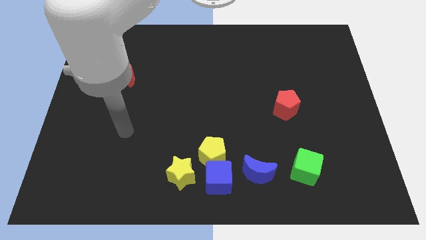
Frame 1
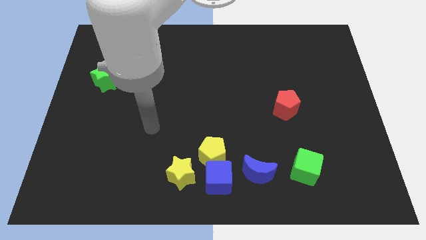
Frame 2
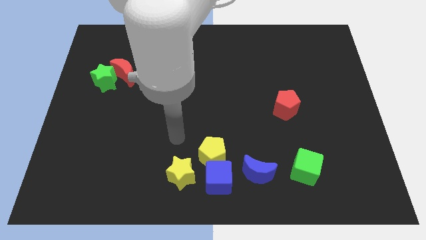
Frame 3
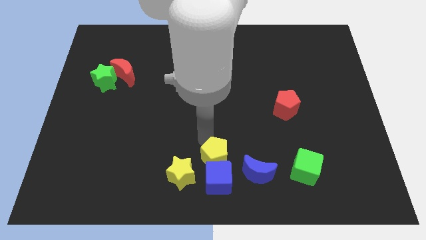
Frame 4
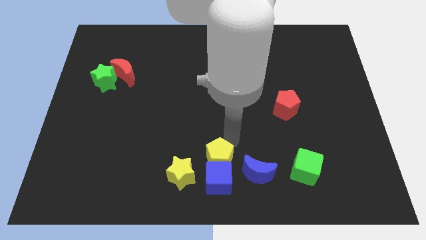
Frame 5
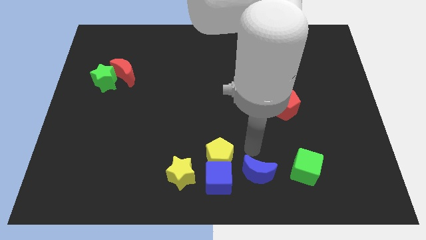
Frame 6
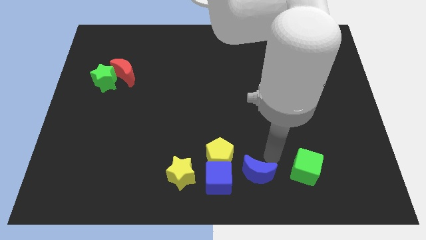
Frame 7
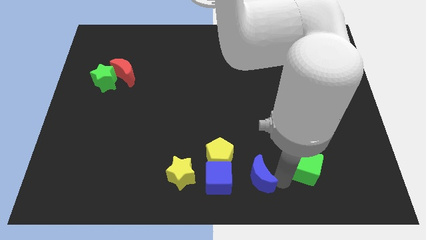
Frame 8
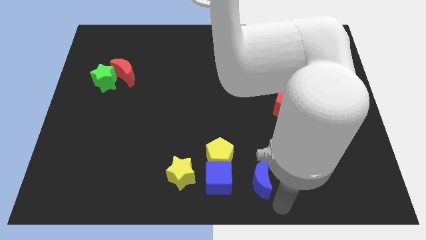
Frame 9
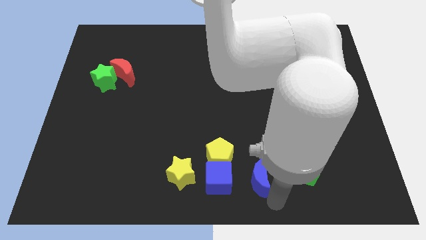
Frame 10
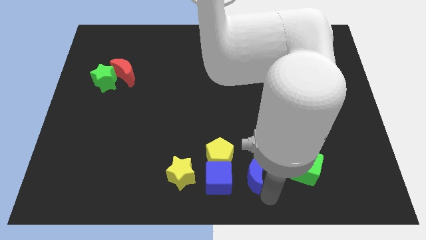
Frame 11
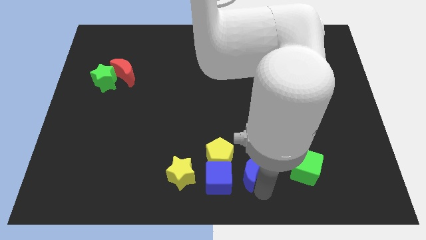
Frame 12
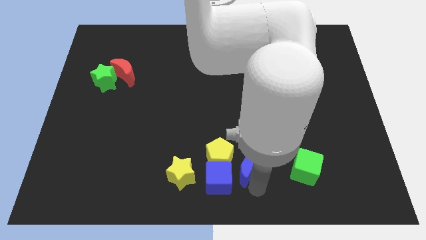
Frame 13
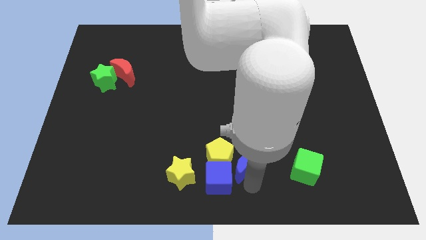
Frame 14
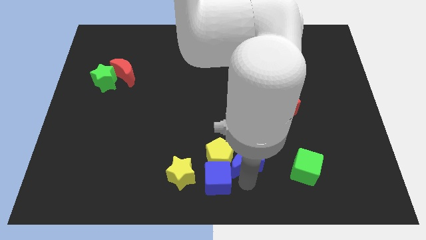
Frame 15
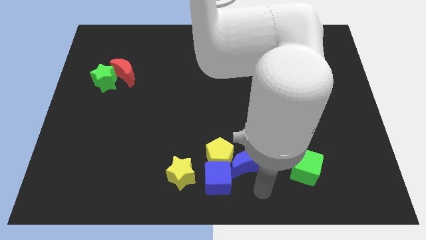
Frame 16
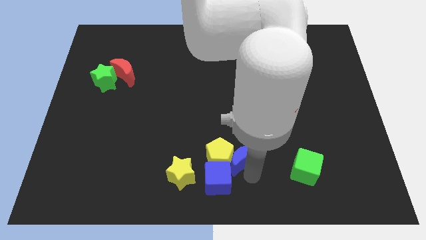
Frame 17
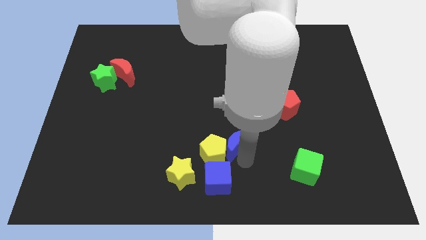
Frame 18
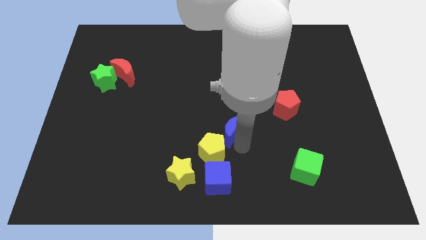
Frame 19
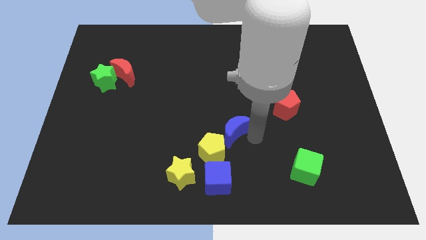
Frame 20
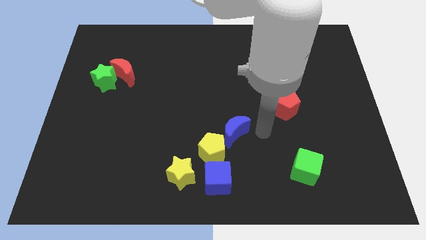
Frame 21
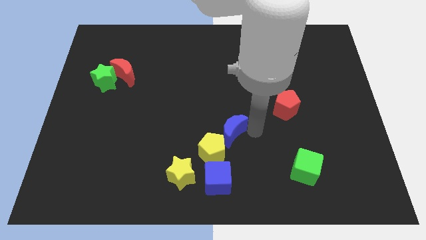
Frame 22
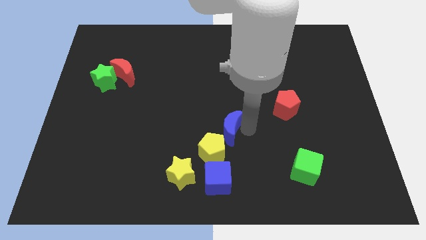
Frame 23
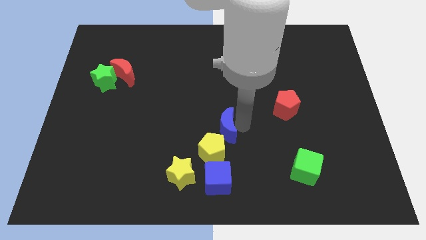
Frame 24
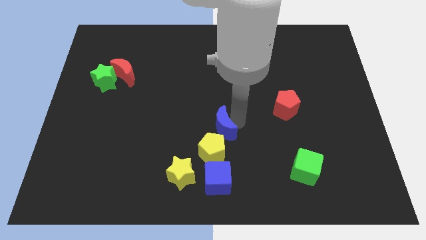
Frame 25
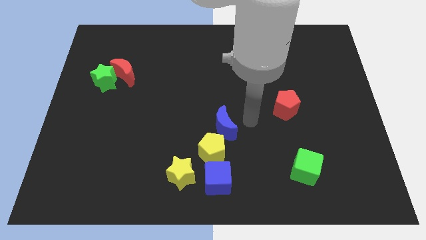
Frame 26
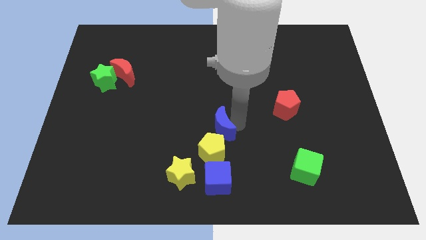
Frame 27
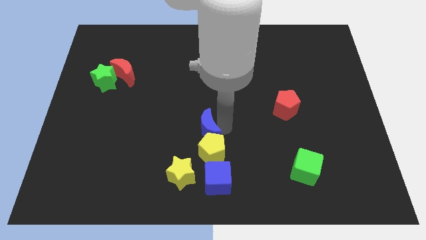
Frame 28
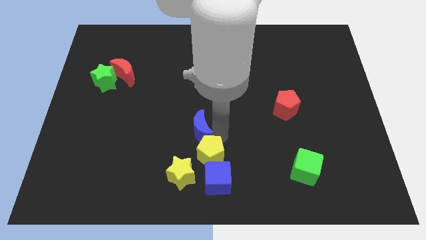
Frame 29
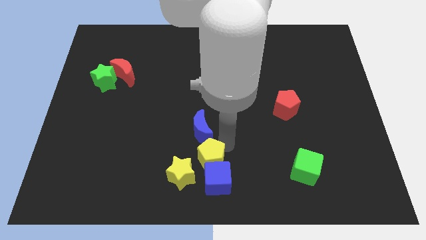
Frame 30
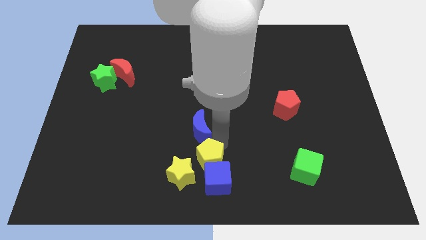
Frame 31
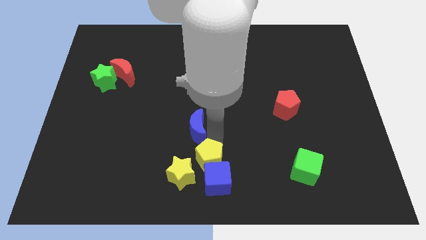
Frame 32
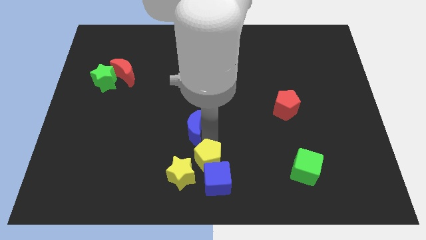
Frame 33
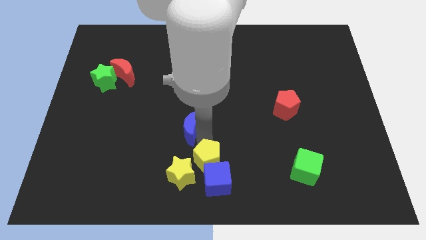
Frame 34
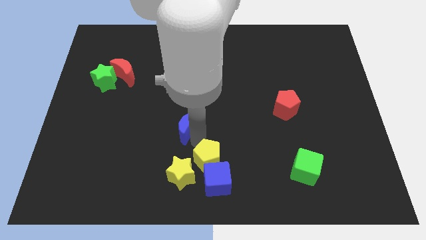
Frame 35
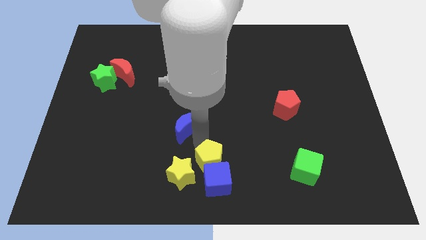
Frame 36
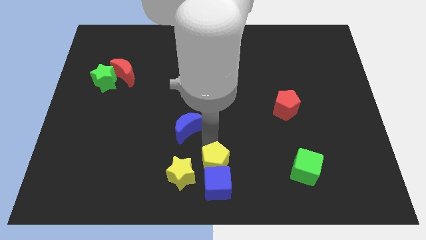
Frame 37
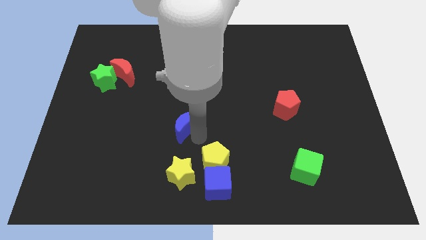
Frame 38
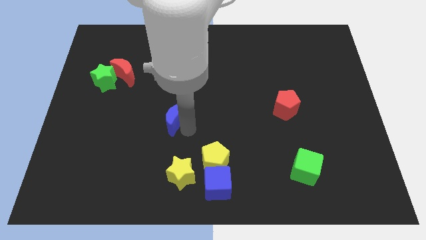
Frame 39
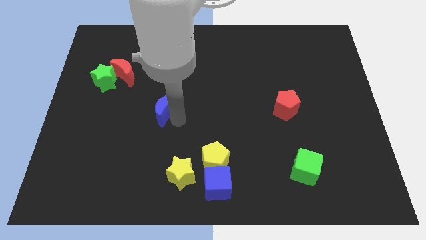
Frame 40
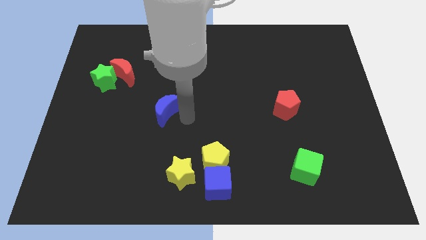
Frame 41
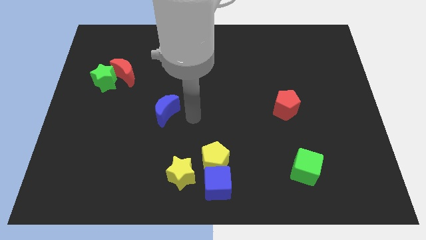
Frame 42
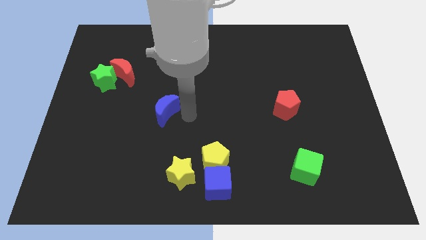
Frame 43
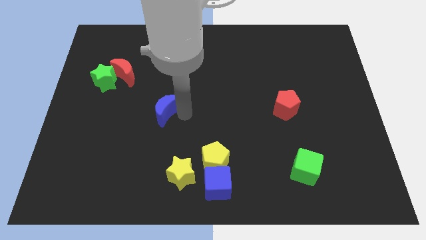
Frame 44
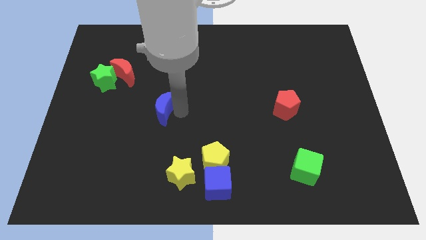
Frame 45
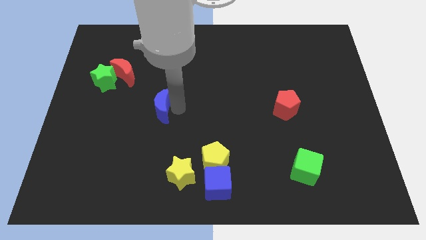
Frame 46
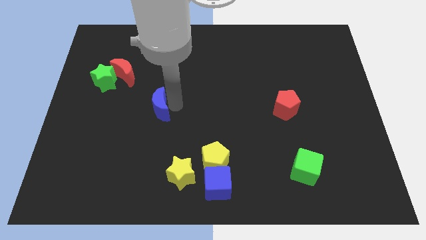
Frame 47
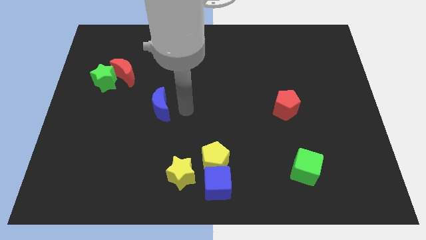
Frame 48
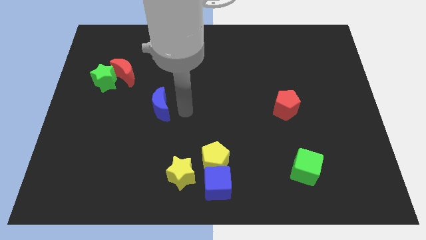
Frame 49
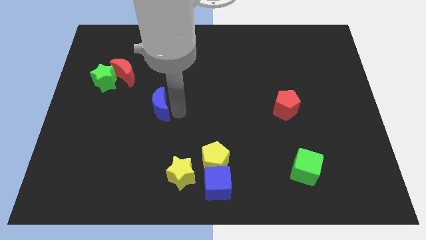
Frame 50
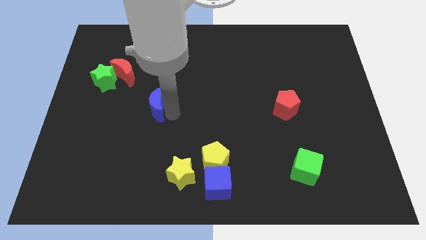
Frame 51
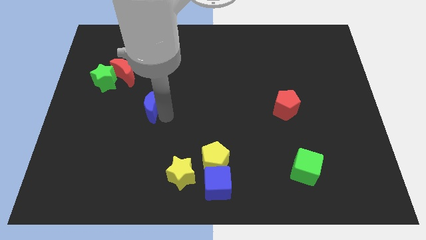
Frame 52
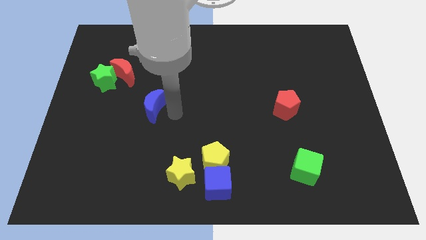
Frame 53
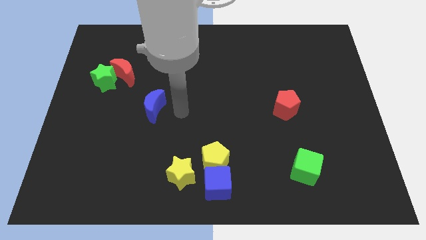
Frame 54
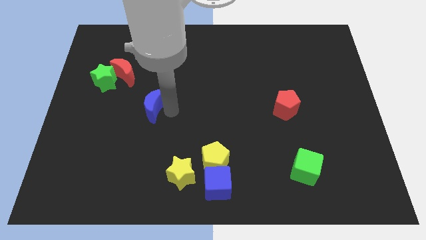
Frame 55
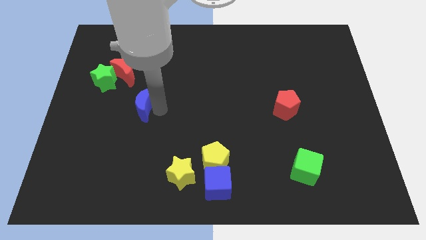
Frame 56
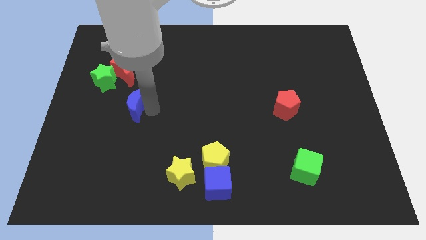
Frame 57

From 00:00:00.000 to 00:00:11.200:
push the blue moon to the bottom right side of the green star

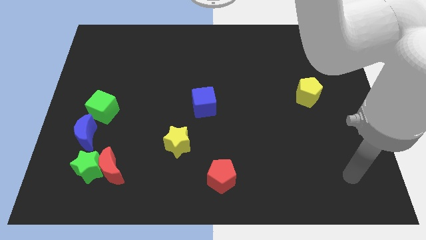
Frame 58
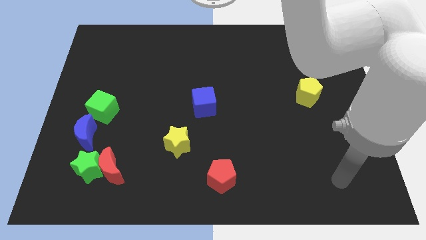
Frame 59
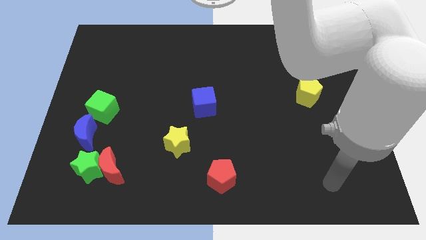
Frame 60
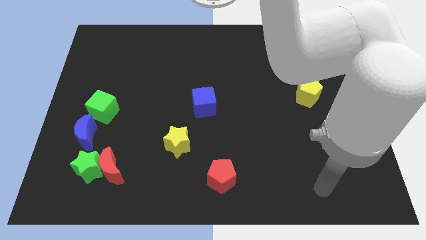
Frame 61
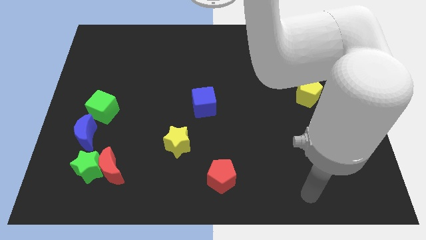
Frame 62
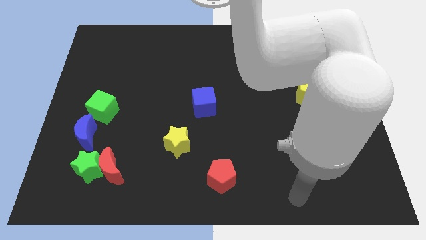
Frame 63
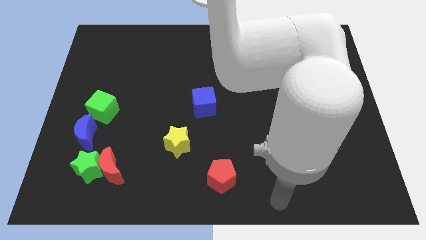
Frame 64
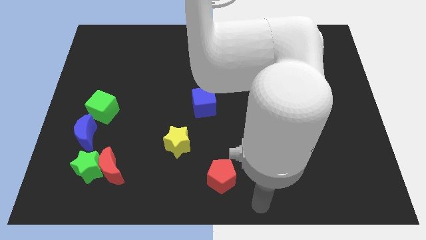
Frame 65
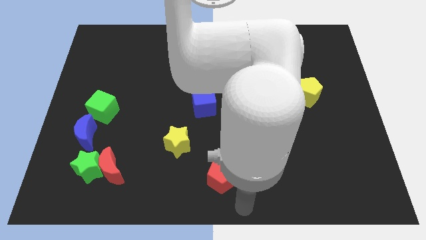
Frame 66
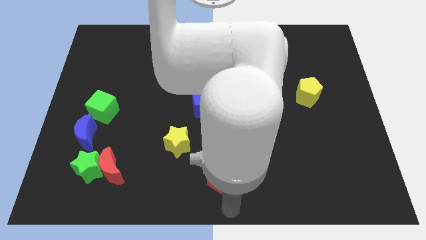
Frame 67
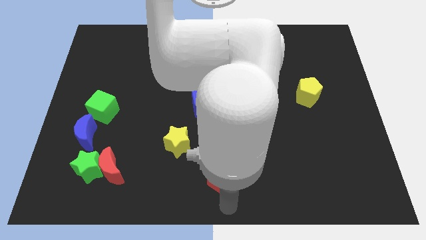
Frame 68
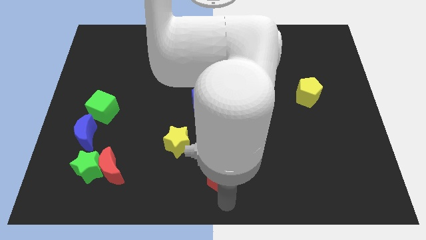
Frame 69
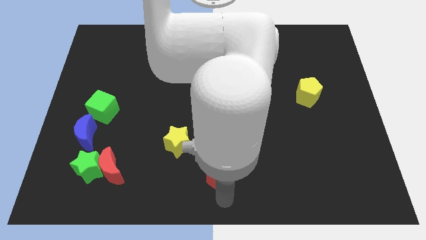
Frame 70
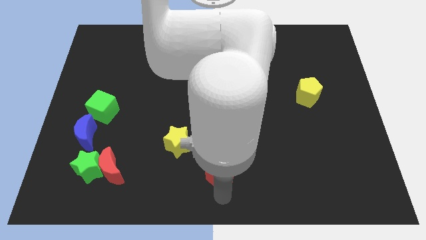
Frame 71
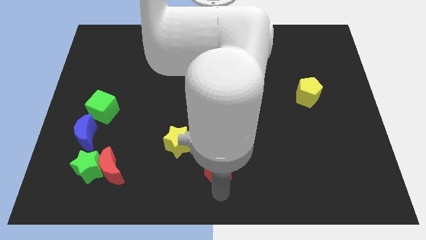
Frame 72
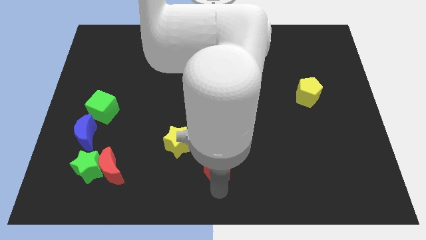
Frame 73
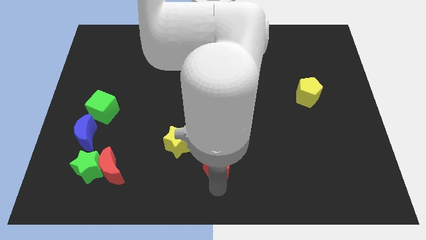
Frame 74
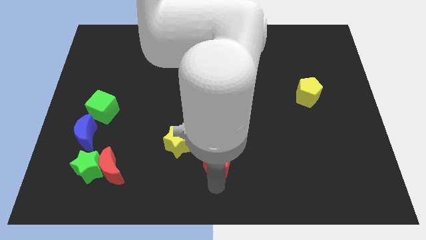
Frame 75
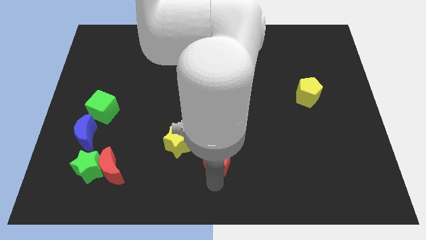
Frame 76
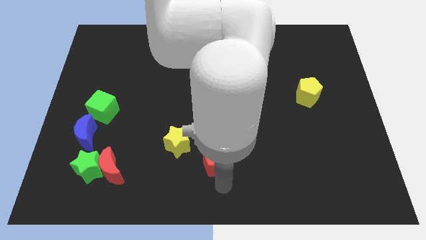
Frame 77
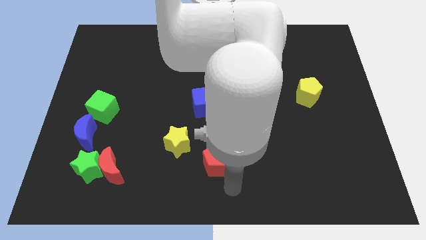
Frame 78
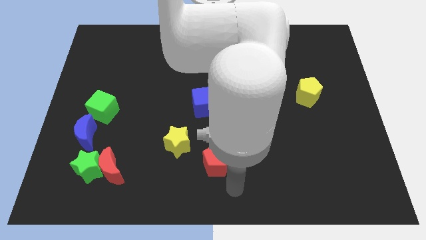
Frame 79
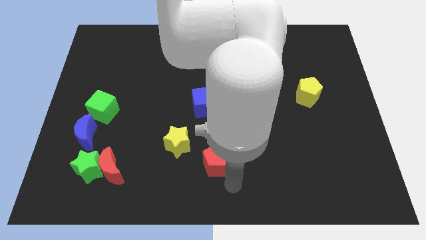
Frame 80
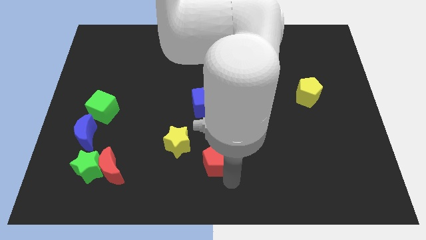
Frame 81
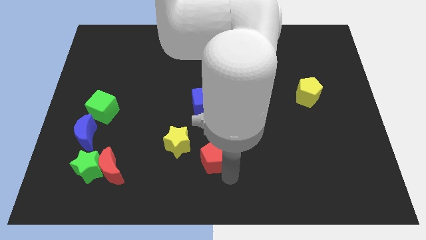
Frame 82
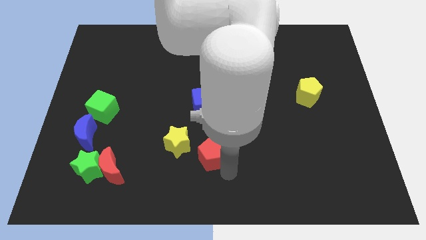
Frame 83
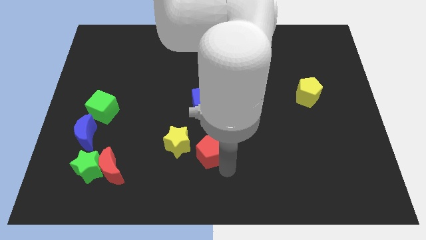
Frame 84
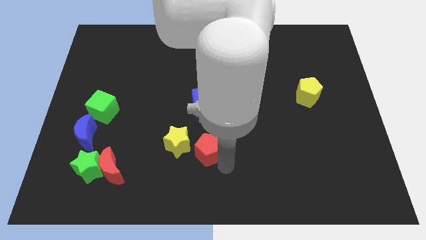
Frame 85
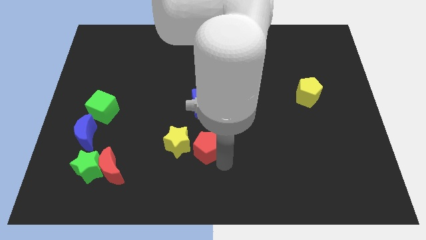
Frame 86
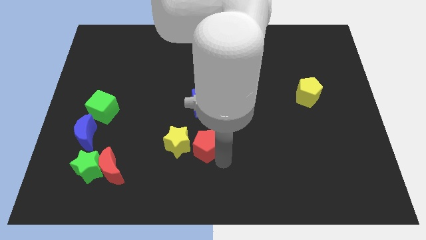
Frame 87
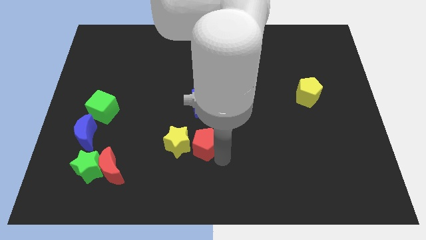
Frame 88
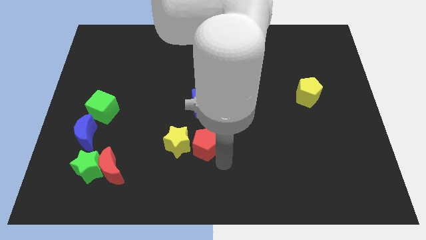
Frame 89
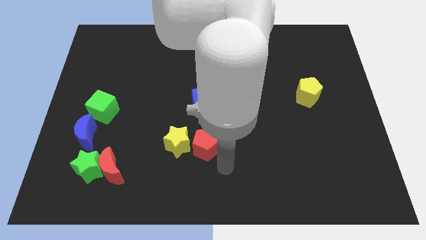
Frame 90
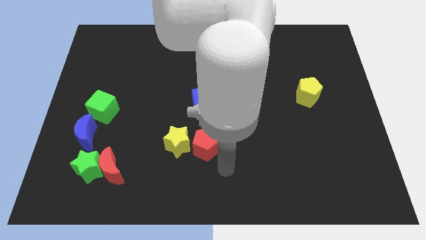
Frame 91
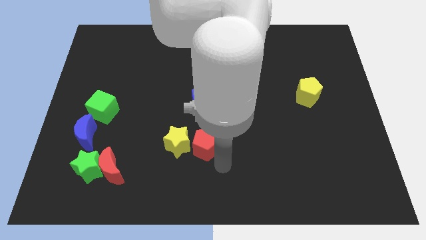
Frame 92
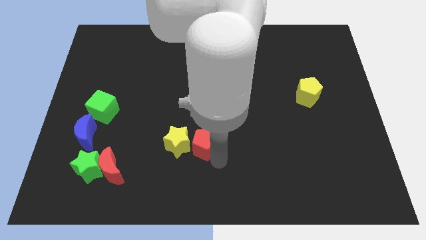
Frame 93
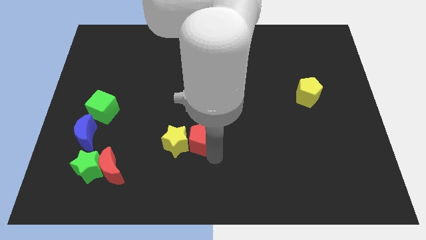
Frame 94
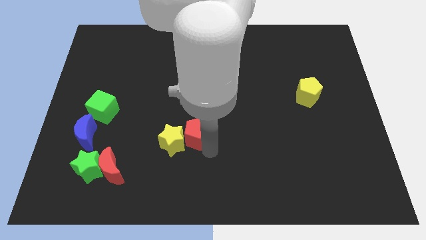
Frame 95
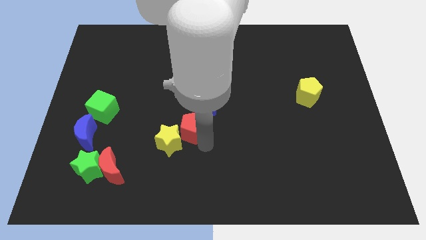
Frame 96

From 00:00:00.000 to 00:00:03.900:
push the red pentagon to the bottom left side of the blue cube
